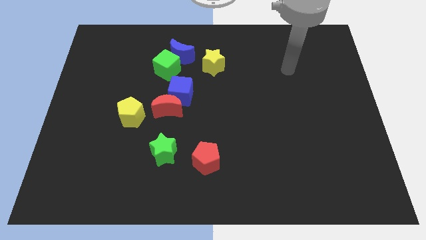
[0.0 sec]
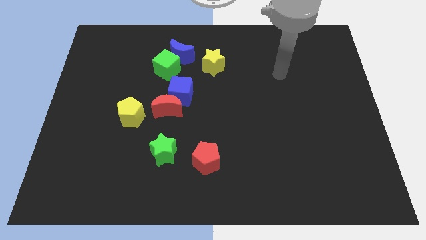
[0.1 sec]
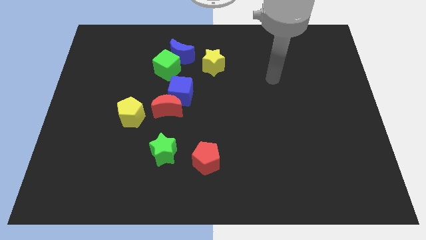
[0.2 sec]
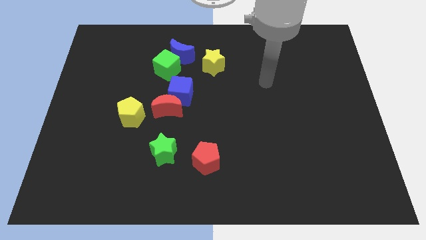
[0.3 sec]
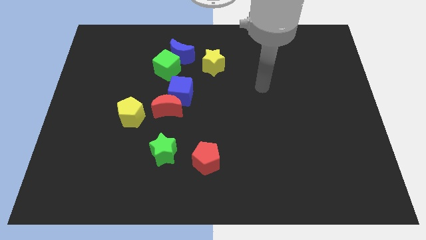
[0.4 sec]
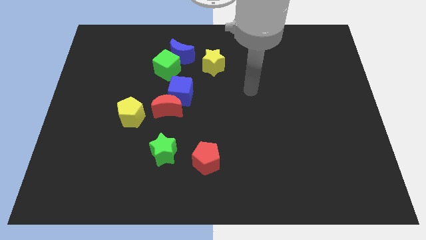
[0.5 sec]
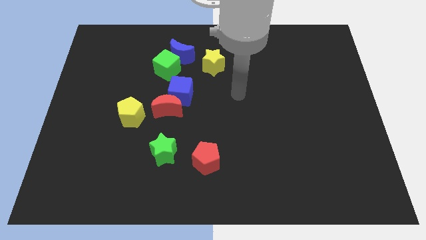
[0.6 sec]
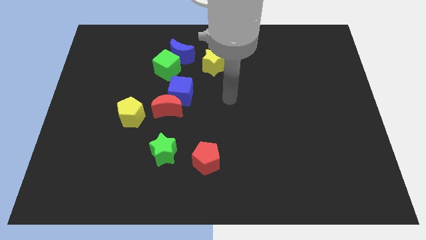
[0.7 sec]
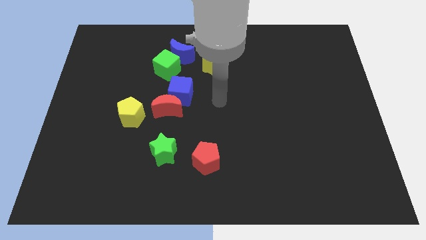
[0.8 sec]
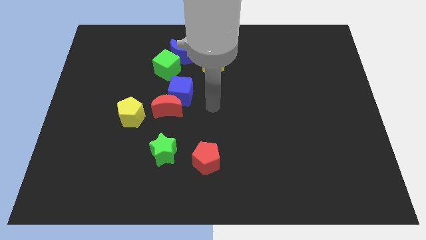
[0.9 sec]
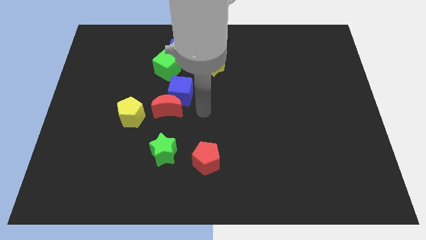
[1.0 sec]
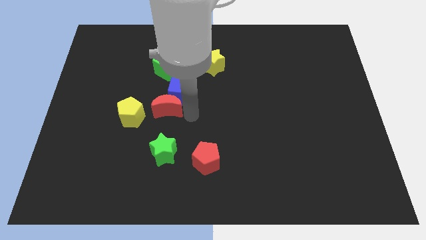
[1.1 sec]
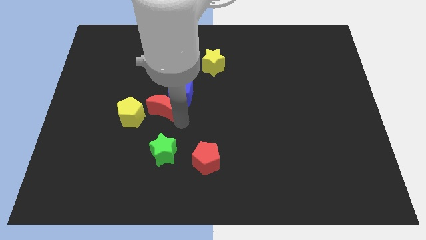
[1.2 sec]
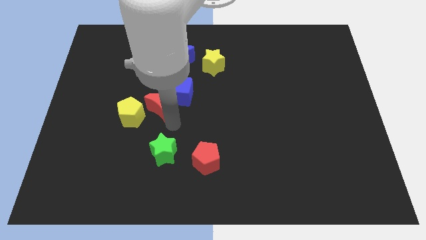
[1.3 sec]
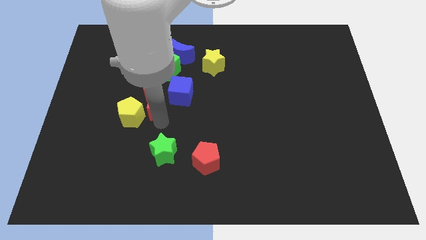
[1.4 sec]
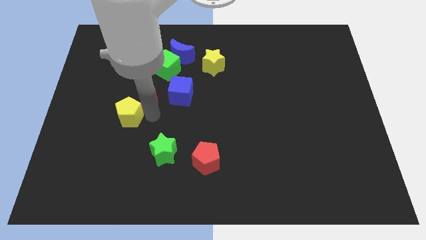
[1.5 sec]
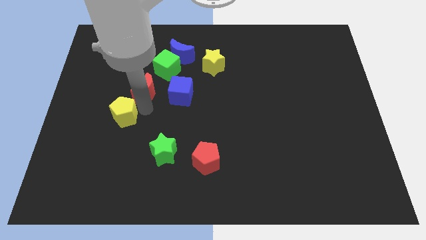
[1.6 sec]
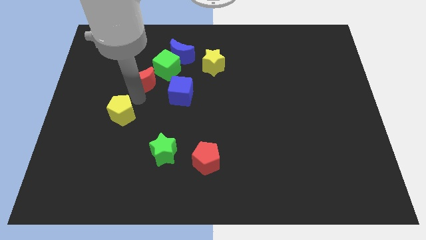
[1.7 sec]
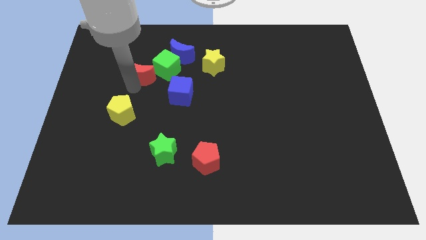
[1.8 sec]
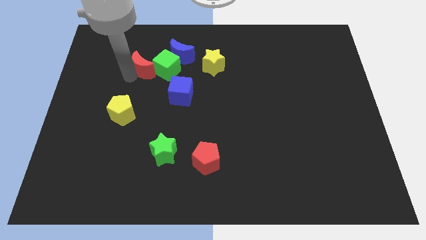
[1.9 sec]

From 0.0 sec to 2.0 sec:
move the red moon away from the blue cube and yellow pentagon

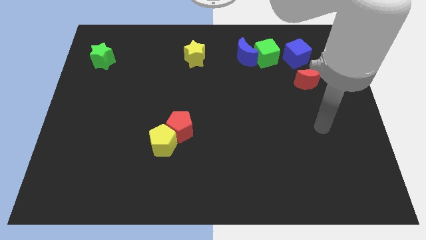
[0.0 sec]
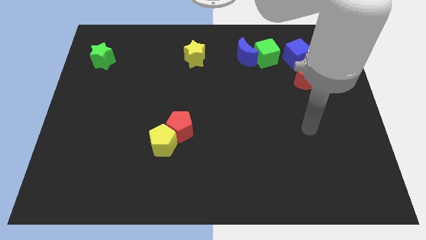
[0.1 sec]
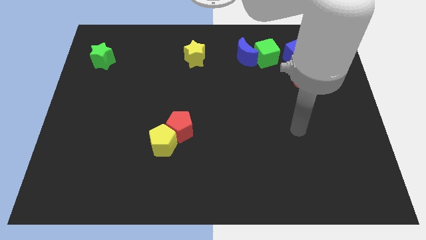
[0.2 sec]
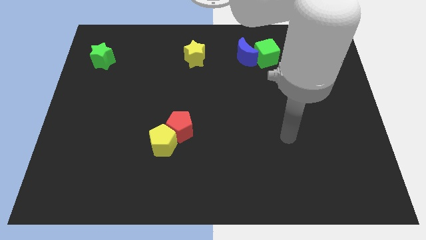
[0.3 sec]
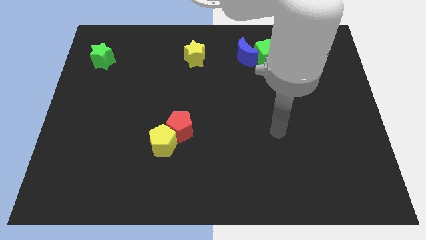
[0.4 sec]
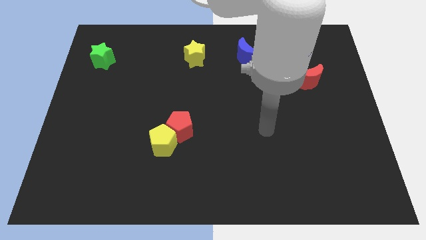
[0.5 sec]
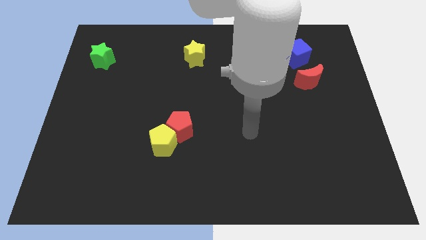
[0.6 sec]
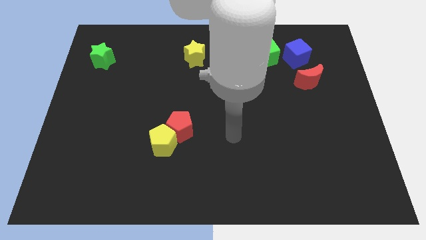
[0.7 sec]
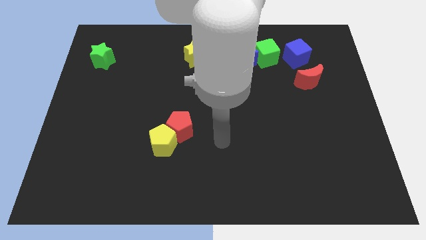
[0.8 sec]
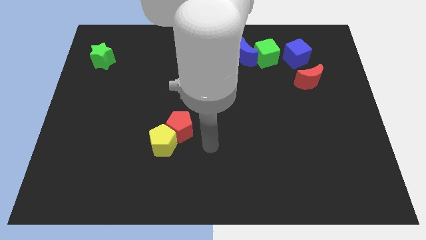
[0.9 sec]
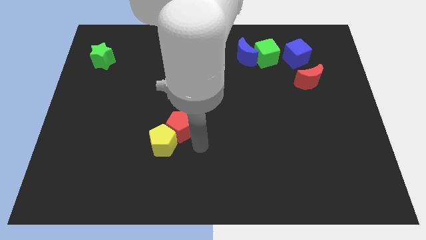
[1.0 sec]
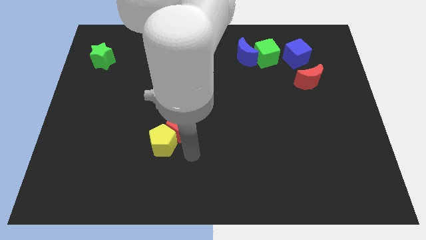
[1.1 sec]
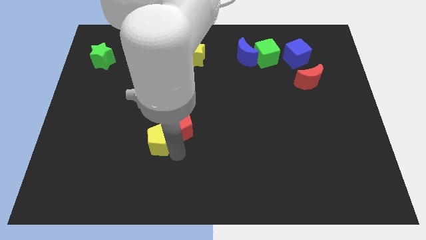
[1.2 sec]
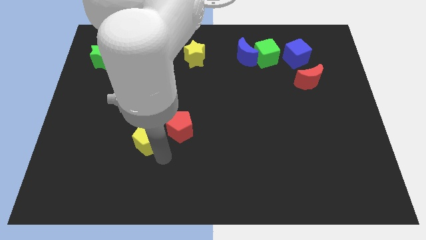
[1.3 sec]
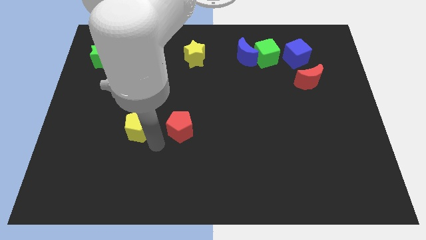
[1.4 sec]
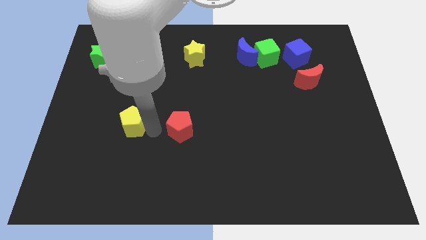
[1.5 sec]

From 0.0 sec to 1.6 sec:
move the red pentagon away from the yellow pentagon

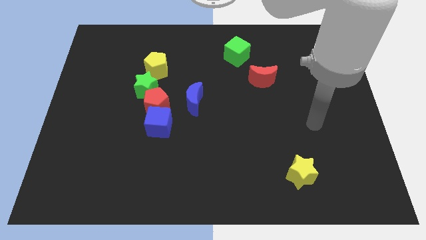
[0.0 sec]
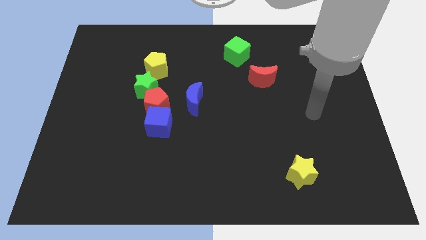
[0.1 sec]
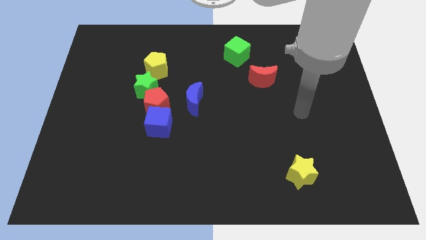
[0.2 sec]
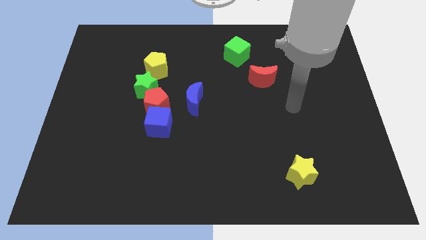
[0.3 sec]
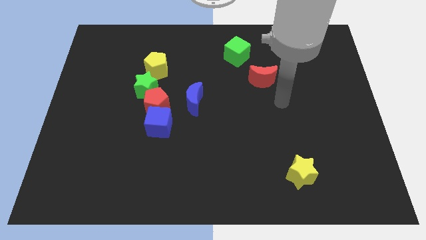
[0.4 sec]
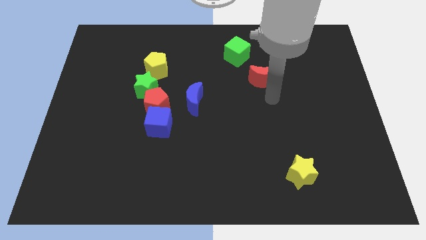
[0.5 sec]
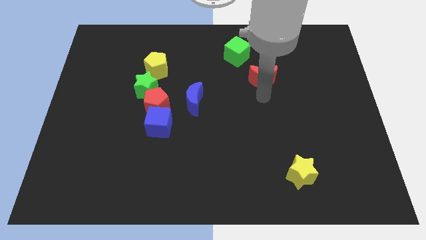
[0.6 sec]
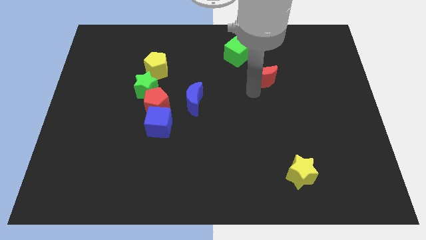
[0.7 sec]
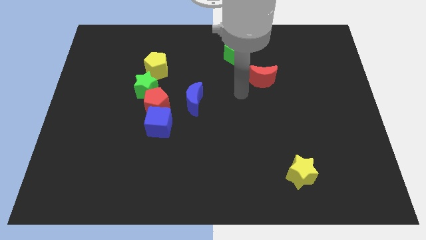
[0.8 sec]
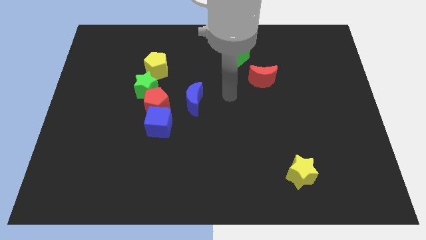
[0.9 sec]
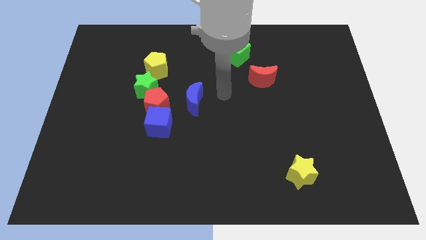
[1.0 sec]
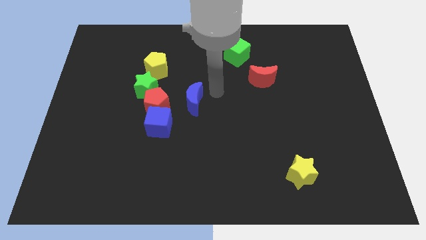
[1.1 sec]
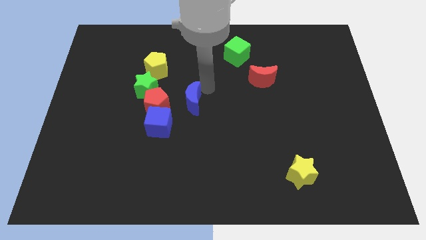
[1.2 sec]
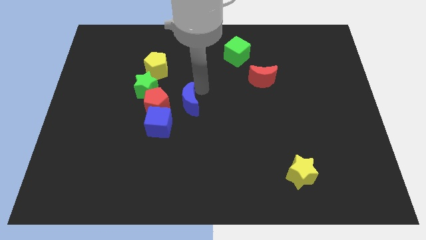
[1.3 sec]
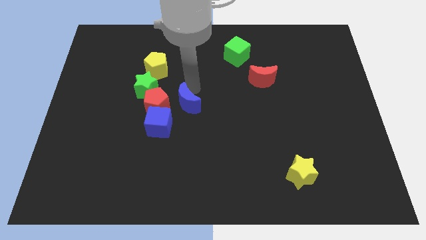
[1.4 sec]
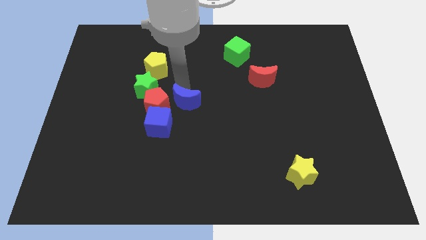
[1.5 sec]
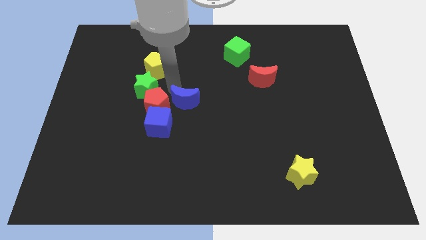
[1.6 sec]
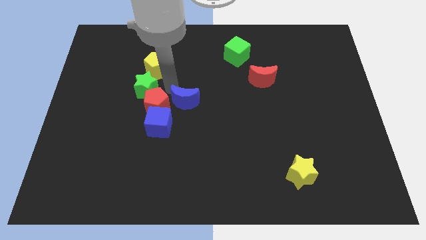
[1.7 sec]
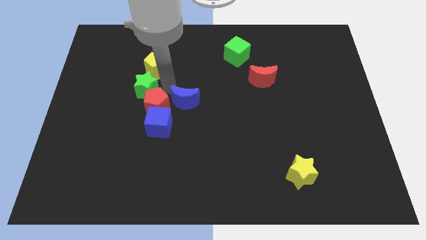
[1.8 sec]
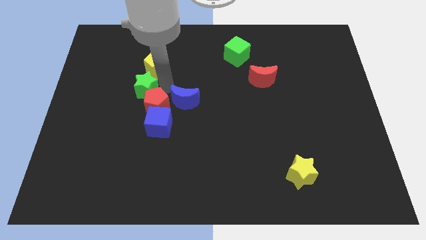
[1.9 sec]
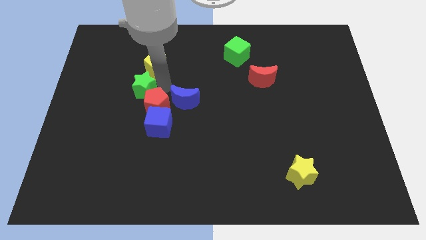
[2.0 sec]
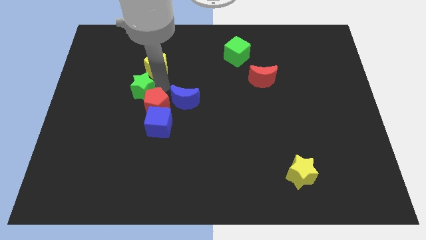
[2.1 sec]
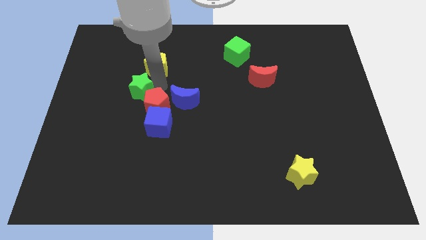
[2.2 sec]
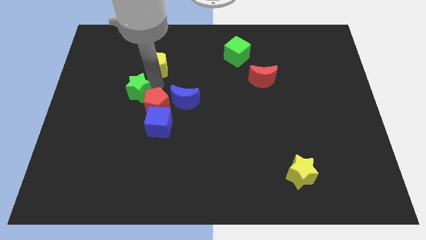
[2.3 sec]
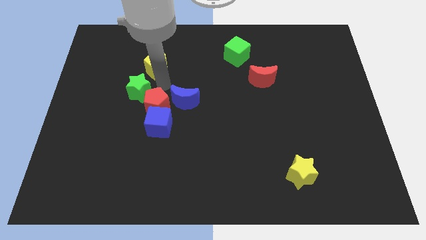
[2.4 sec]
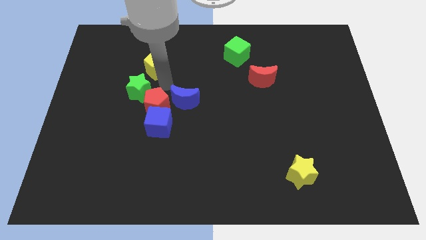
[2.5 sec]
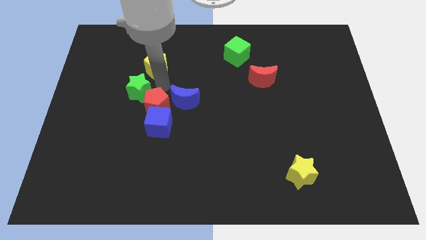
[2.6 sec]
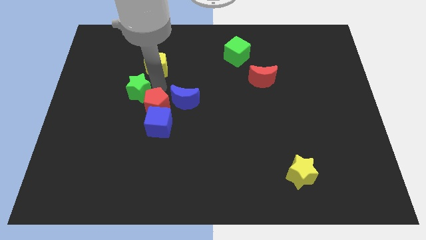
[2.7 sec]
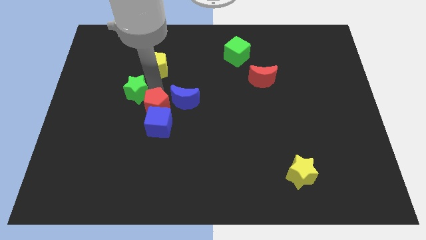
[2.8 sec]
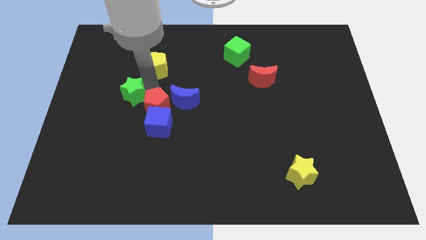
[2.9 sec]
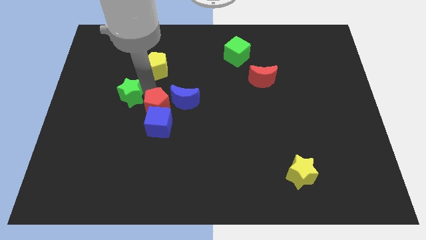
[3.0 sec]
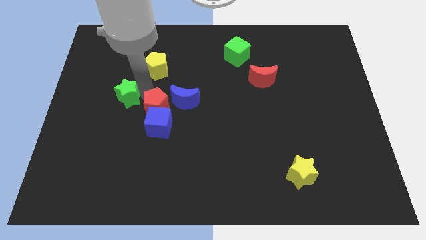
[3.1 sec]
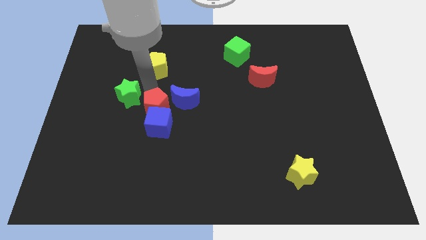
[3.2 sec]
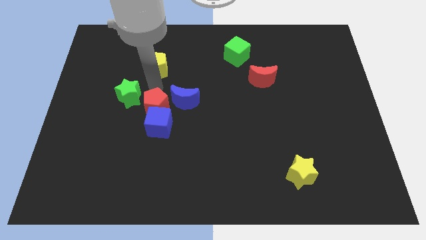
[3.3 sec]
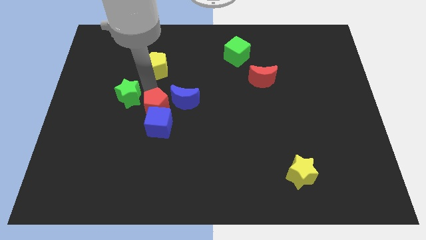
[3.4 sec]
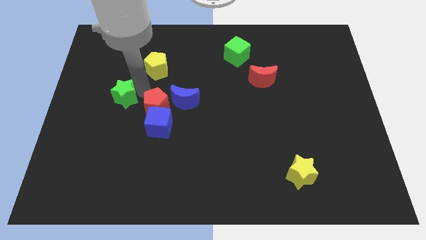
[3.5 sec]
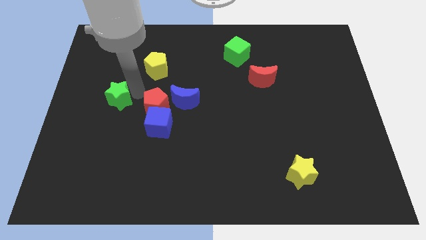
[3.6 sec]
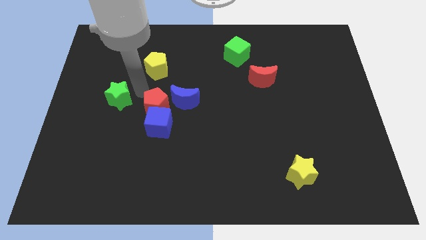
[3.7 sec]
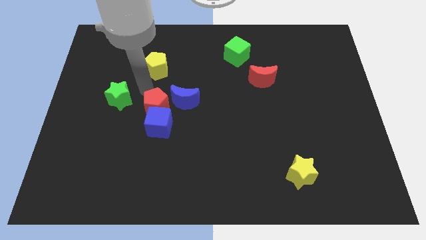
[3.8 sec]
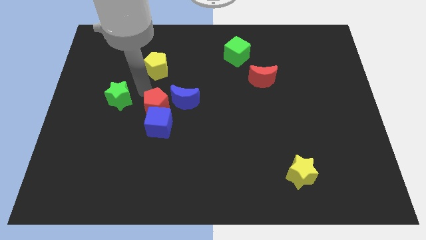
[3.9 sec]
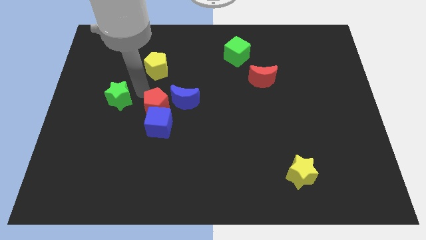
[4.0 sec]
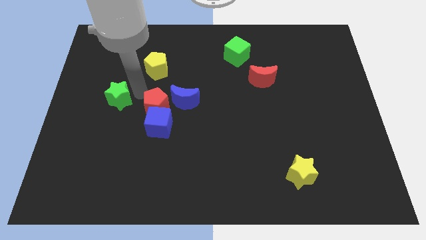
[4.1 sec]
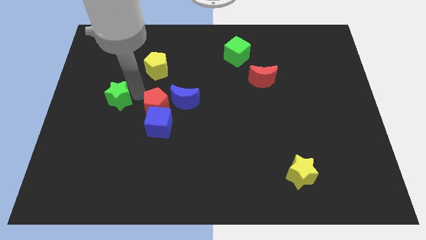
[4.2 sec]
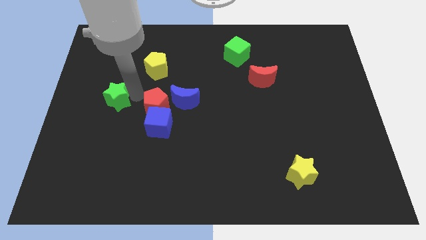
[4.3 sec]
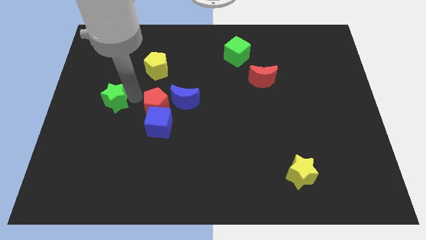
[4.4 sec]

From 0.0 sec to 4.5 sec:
pull the green star apart from the red pentagon and yellow pentagon

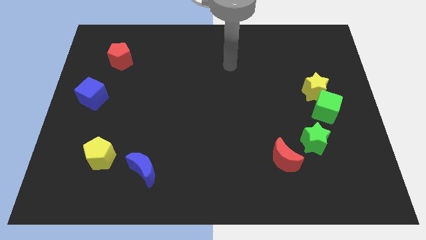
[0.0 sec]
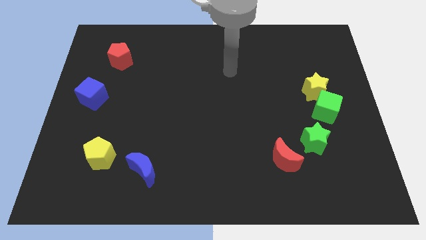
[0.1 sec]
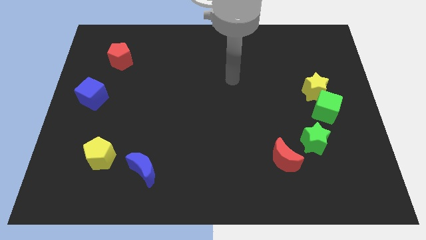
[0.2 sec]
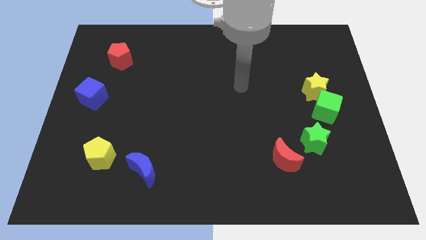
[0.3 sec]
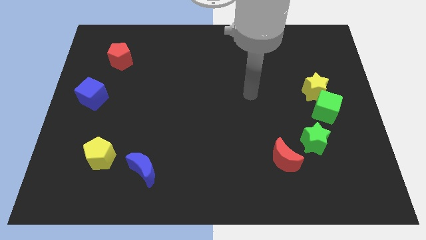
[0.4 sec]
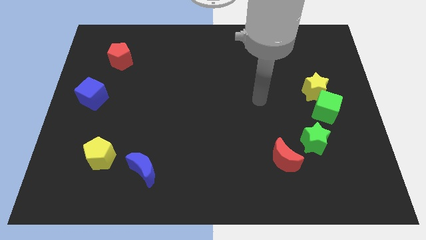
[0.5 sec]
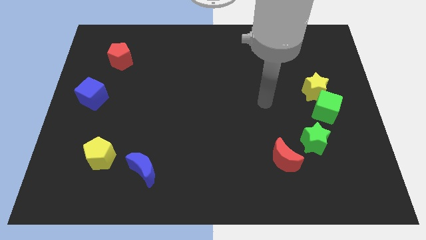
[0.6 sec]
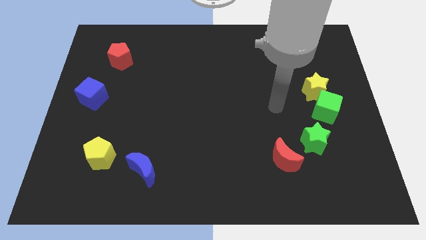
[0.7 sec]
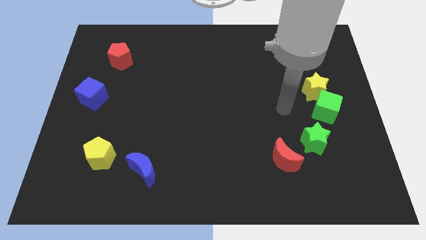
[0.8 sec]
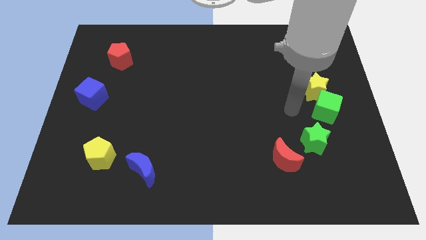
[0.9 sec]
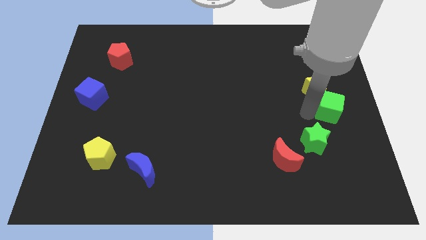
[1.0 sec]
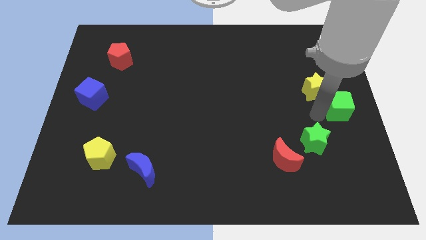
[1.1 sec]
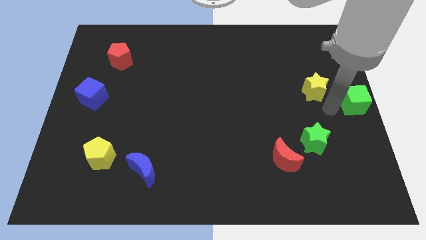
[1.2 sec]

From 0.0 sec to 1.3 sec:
pull the yellow star apart from the green cube
